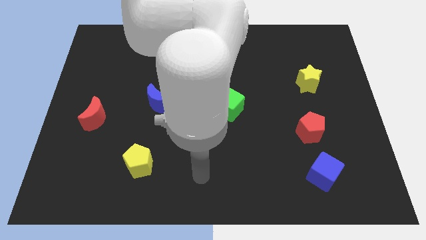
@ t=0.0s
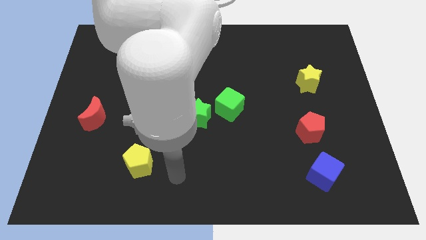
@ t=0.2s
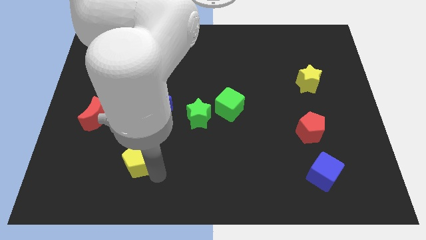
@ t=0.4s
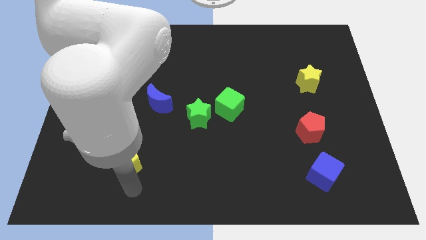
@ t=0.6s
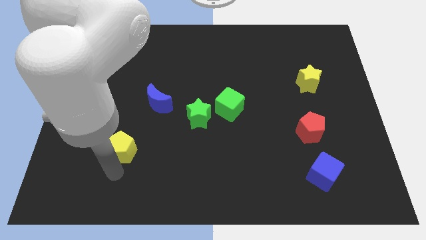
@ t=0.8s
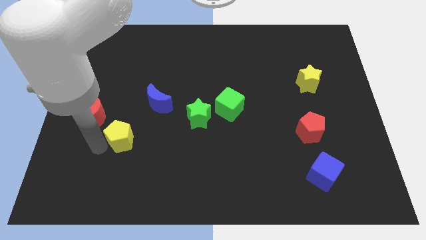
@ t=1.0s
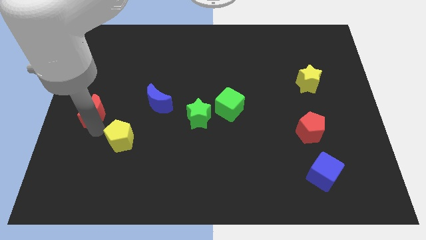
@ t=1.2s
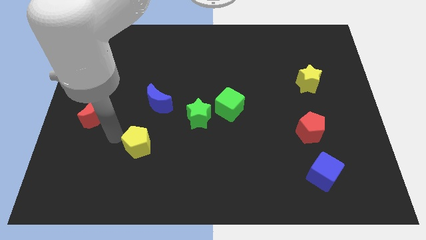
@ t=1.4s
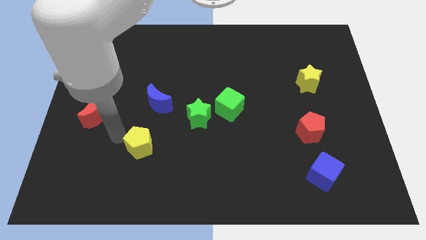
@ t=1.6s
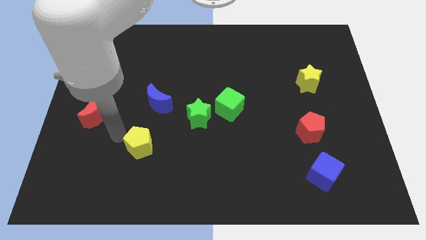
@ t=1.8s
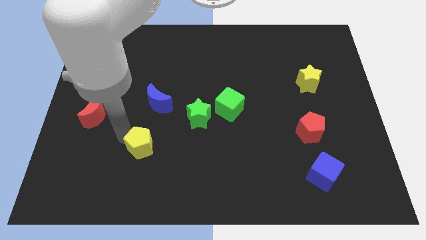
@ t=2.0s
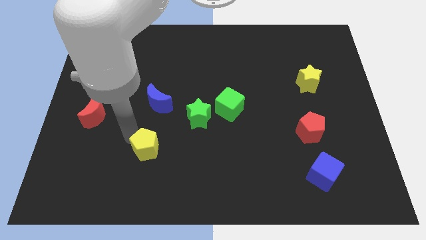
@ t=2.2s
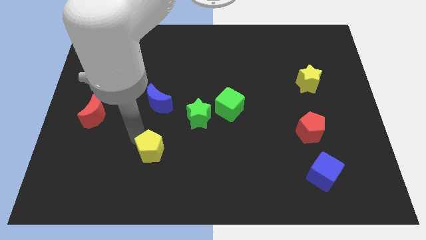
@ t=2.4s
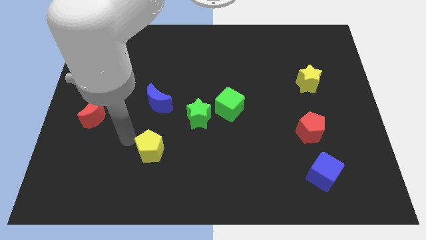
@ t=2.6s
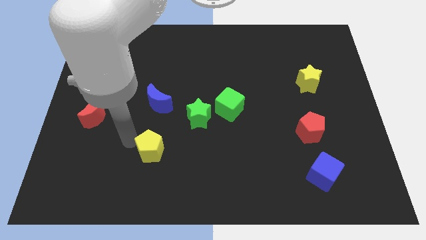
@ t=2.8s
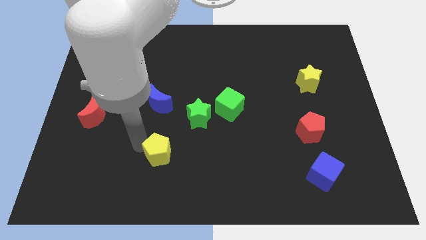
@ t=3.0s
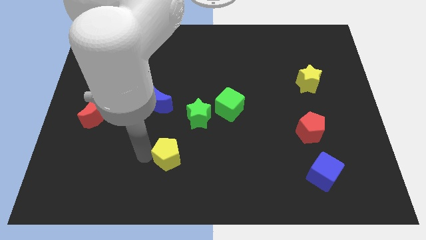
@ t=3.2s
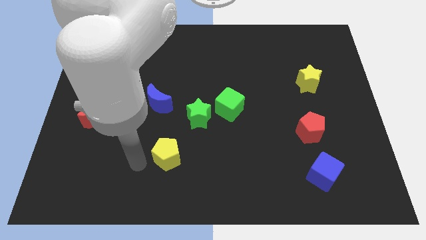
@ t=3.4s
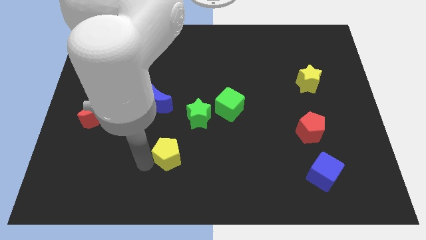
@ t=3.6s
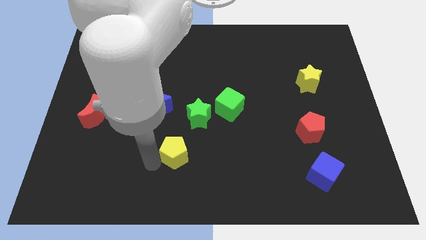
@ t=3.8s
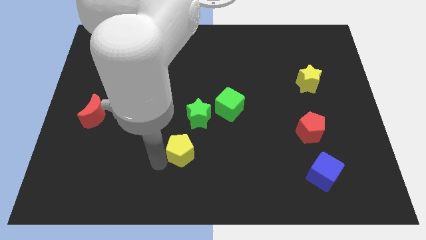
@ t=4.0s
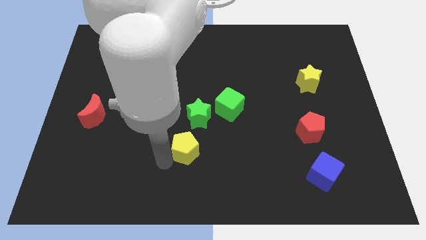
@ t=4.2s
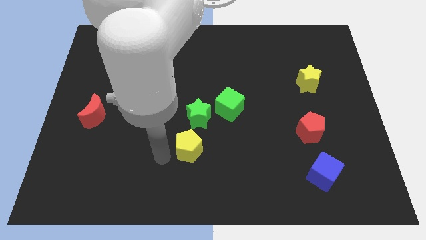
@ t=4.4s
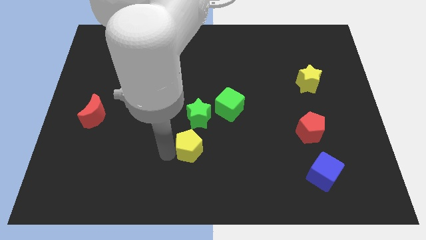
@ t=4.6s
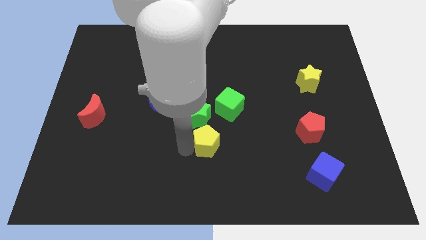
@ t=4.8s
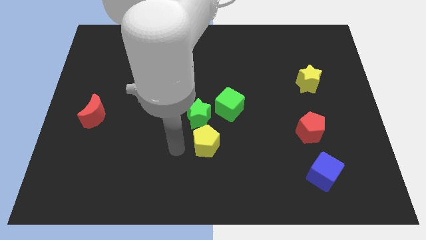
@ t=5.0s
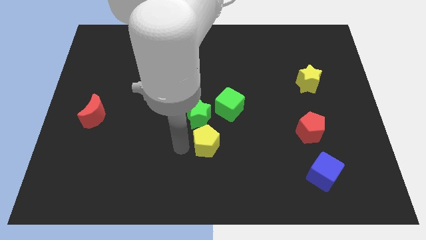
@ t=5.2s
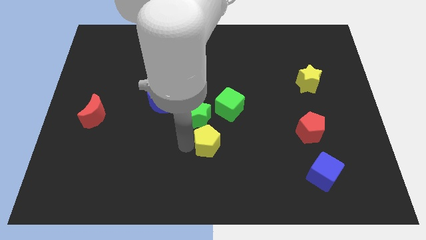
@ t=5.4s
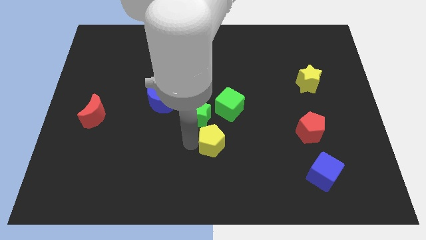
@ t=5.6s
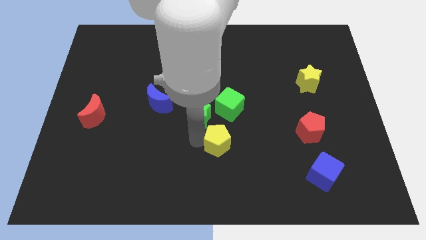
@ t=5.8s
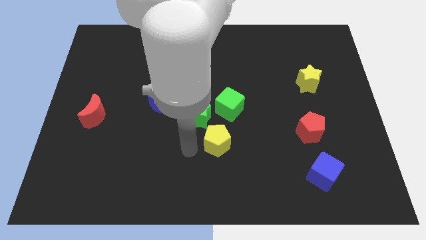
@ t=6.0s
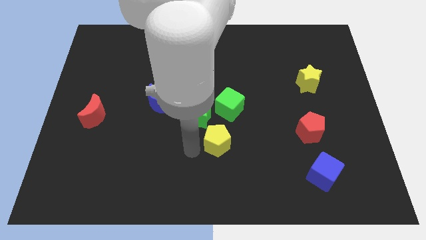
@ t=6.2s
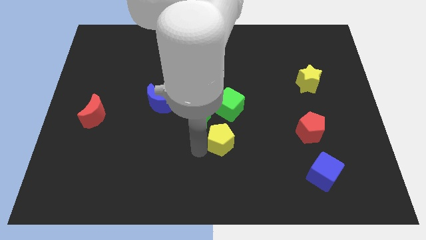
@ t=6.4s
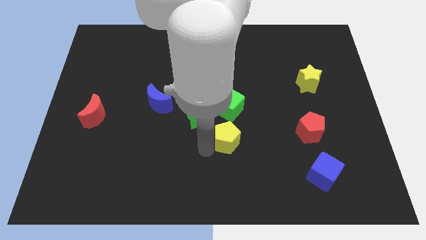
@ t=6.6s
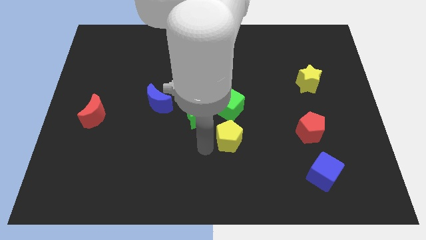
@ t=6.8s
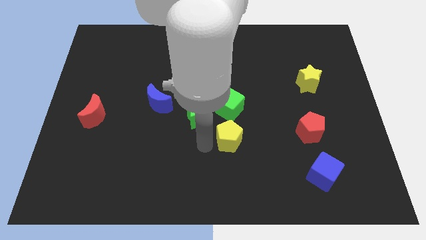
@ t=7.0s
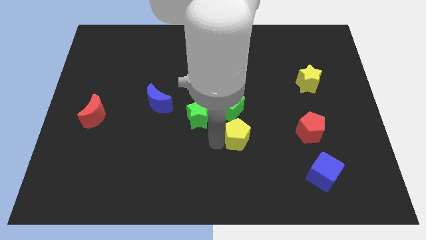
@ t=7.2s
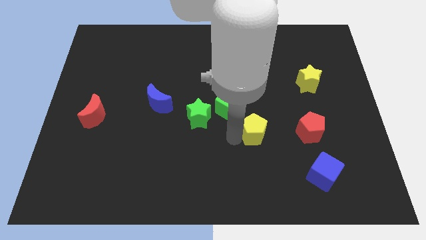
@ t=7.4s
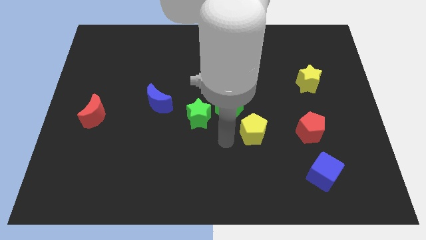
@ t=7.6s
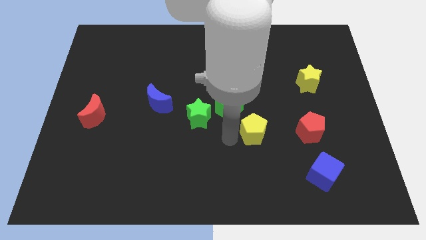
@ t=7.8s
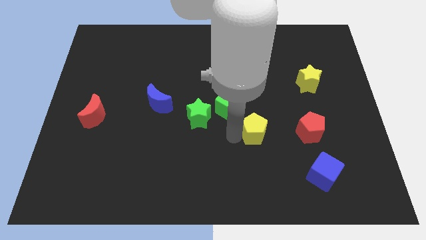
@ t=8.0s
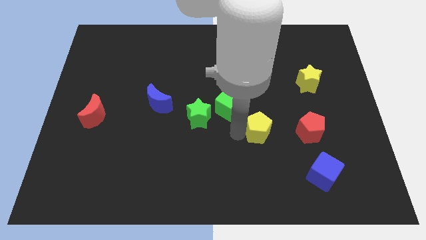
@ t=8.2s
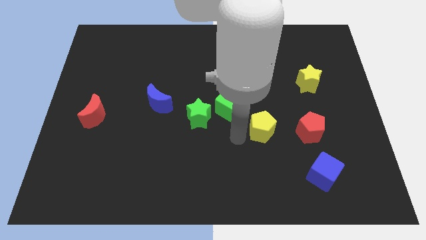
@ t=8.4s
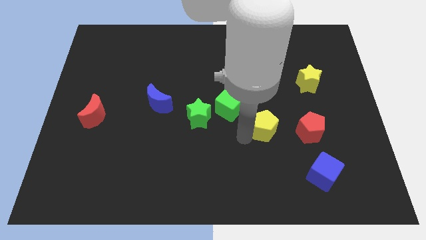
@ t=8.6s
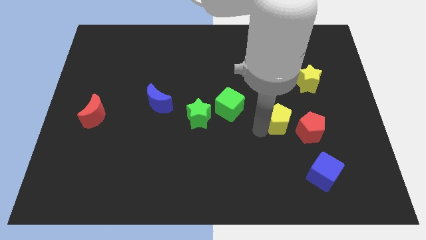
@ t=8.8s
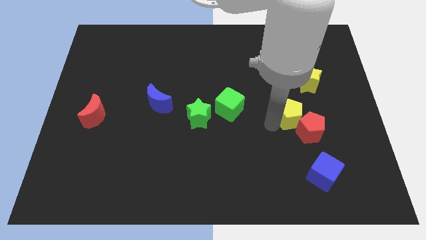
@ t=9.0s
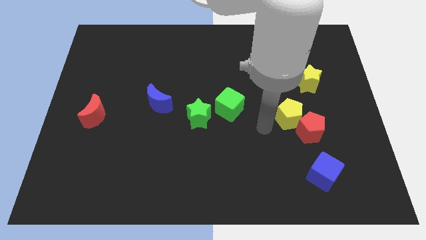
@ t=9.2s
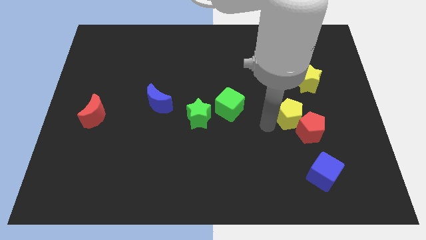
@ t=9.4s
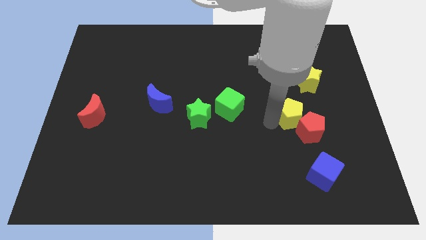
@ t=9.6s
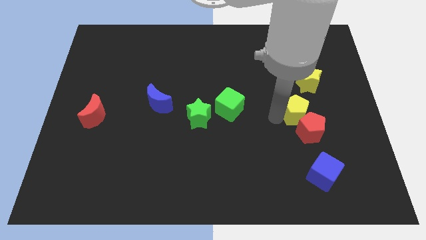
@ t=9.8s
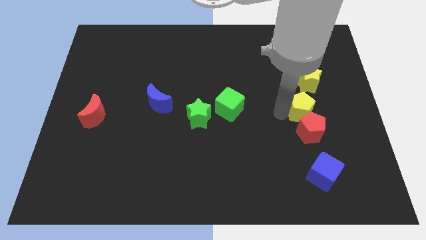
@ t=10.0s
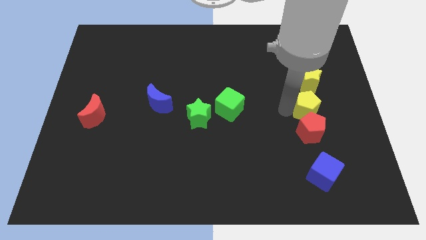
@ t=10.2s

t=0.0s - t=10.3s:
push the yellow pentagon to the top right side of the red pentagon
